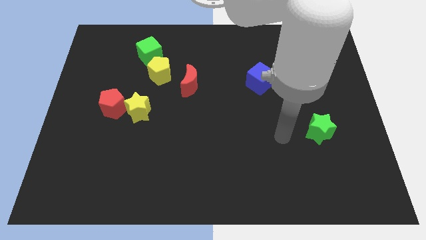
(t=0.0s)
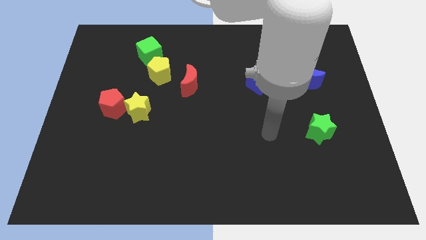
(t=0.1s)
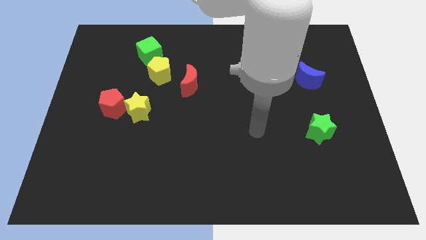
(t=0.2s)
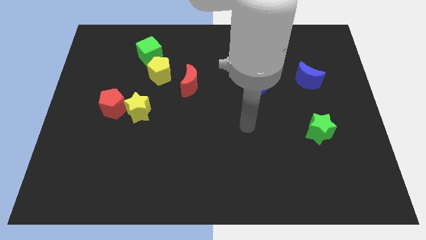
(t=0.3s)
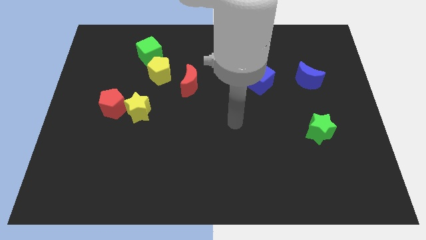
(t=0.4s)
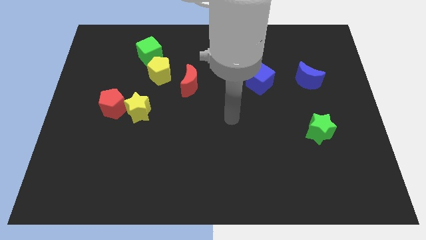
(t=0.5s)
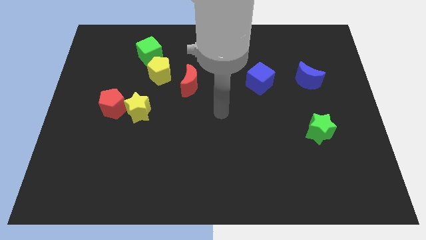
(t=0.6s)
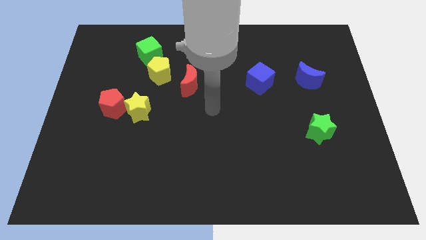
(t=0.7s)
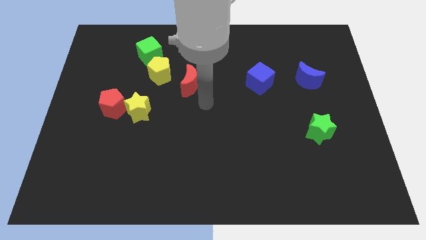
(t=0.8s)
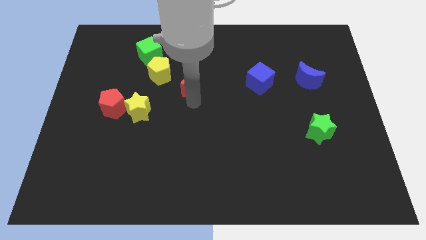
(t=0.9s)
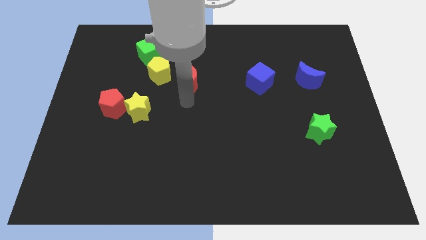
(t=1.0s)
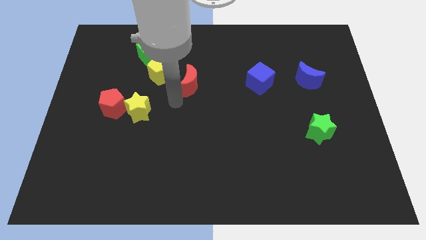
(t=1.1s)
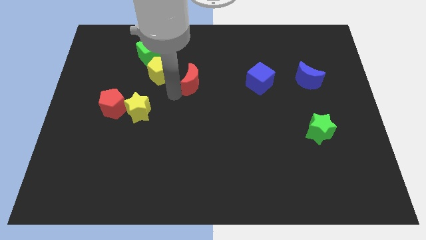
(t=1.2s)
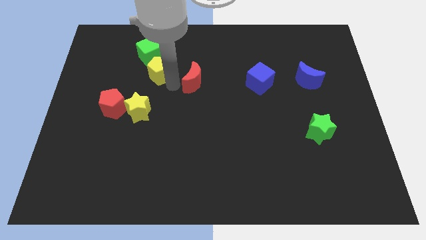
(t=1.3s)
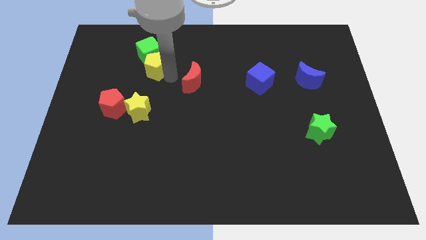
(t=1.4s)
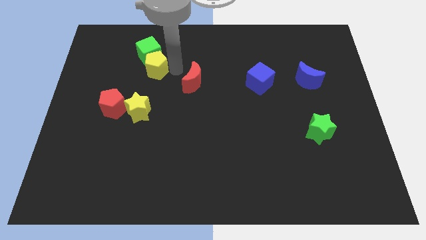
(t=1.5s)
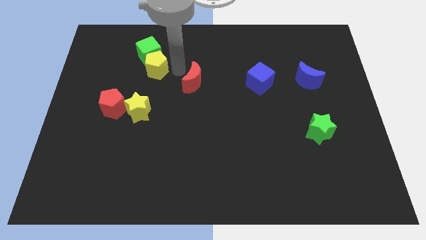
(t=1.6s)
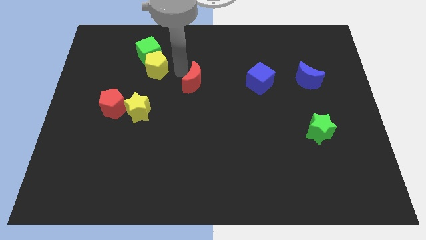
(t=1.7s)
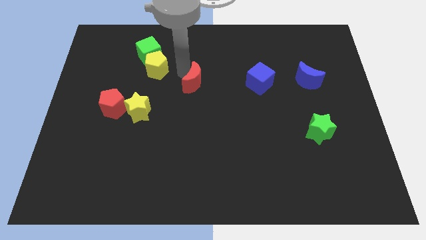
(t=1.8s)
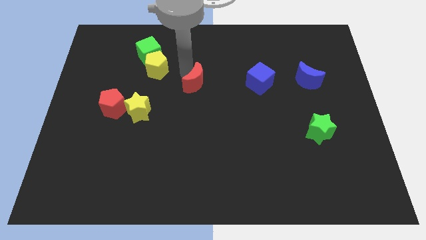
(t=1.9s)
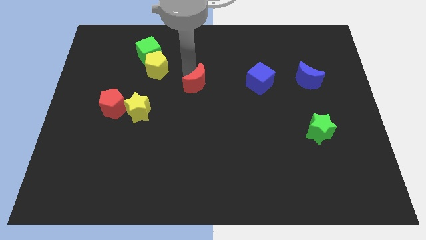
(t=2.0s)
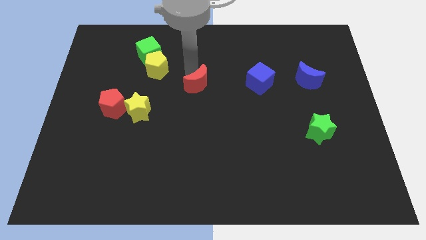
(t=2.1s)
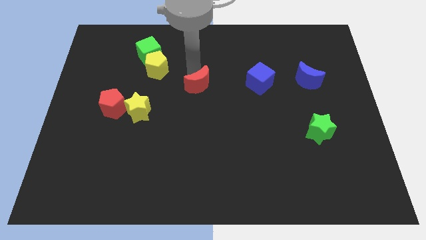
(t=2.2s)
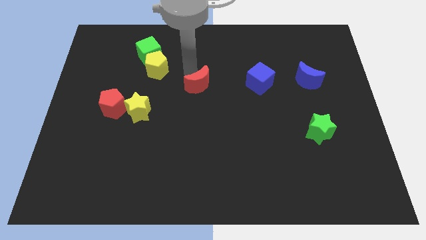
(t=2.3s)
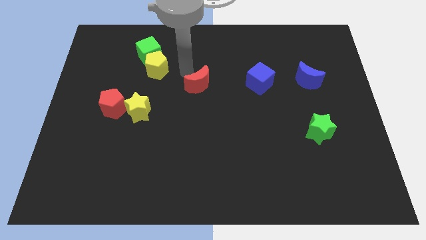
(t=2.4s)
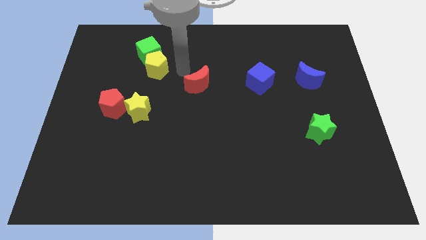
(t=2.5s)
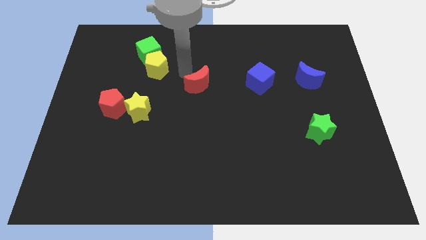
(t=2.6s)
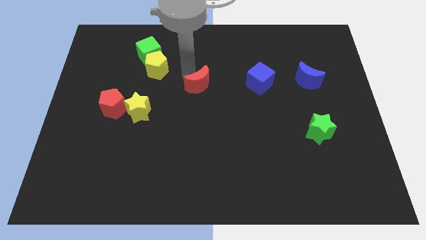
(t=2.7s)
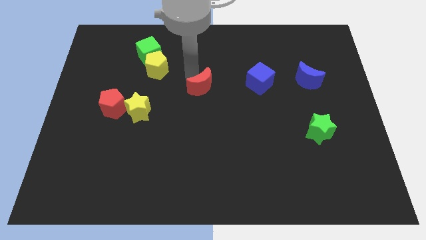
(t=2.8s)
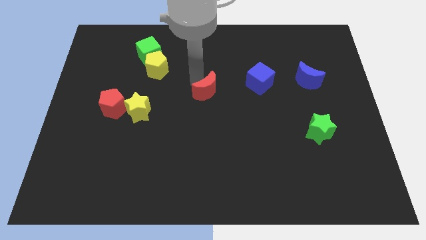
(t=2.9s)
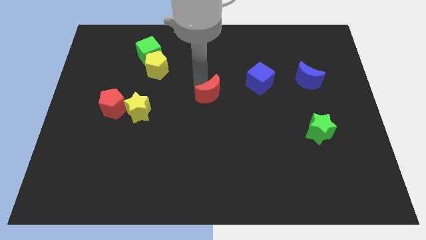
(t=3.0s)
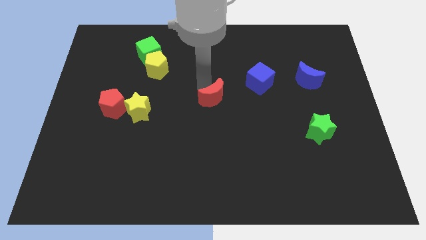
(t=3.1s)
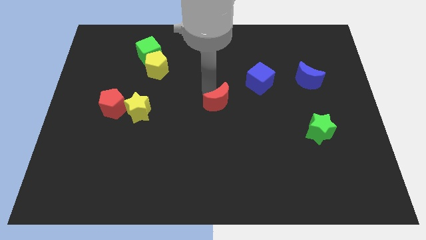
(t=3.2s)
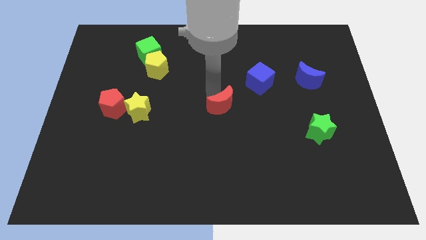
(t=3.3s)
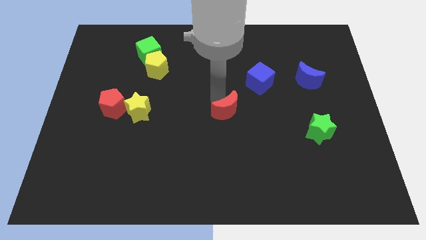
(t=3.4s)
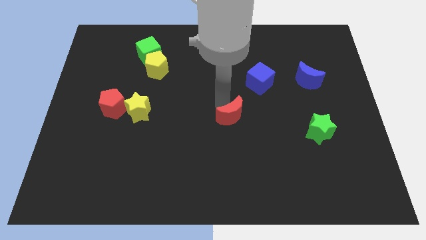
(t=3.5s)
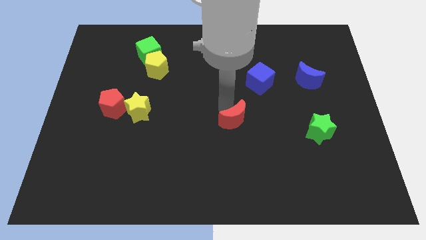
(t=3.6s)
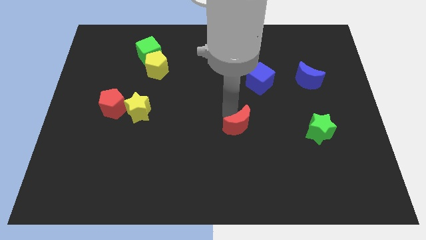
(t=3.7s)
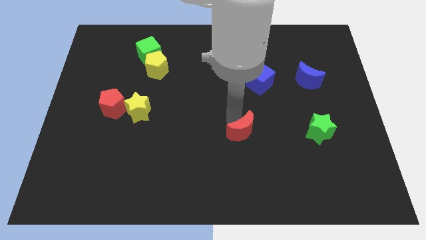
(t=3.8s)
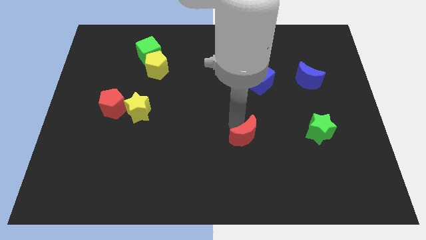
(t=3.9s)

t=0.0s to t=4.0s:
slide the red moon diagonally downwards and right

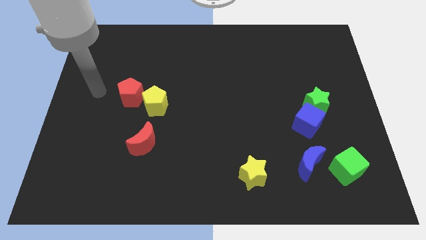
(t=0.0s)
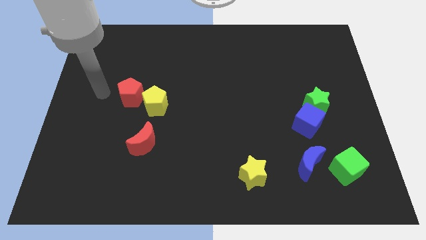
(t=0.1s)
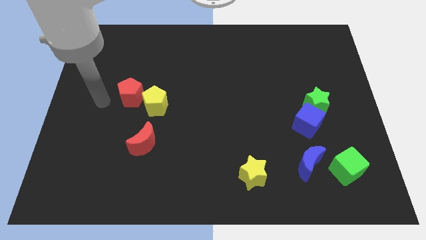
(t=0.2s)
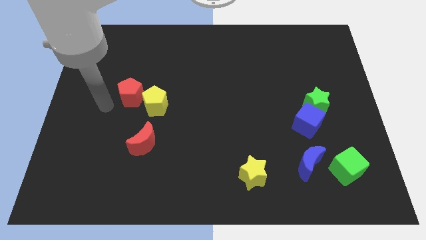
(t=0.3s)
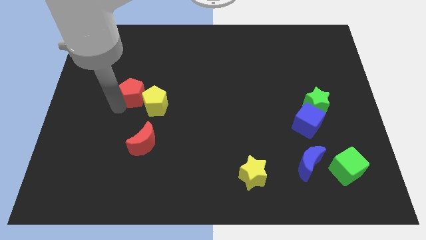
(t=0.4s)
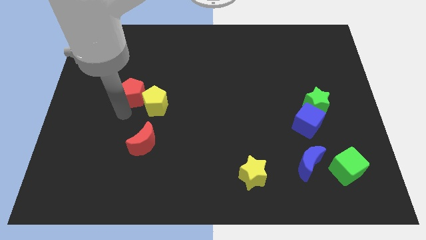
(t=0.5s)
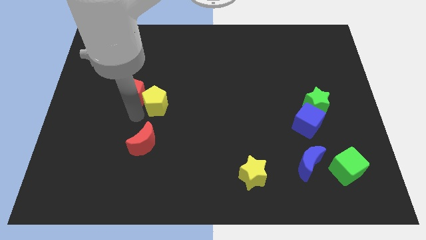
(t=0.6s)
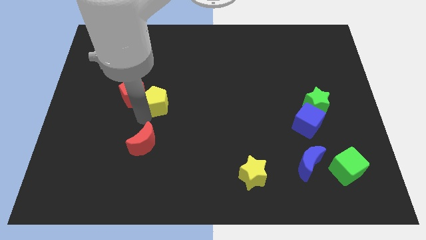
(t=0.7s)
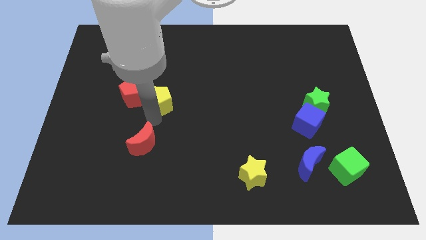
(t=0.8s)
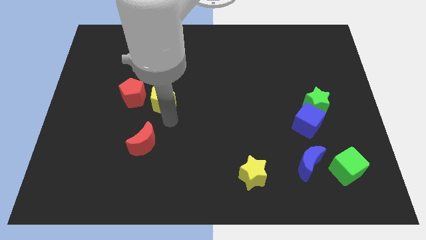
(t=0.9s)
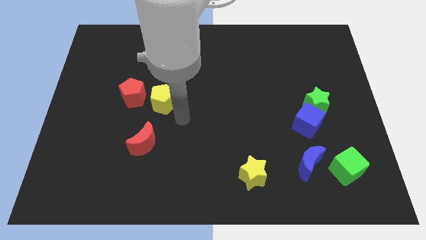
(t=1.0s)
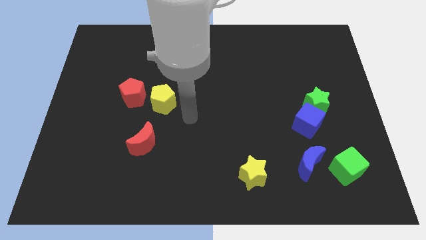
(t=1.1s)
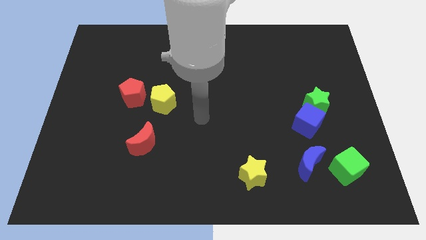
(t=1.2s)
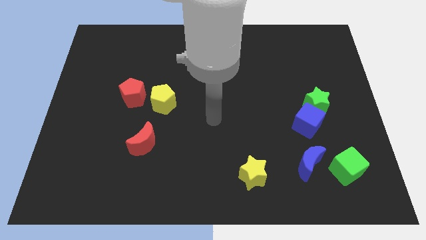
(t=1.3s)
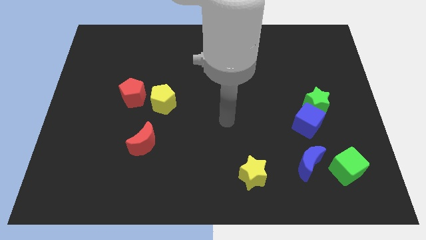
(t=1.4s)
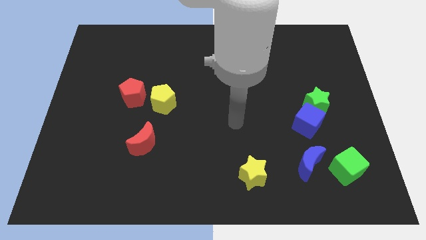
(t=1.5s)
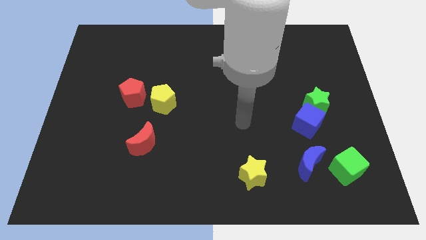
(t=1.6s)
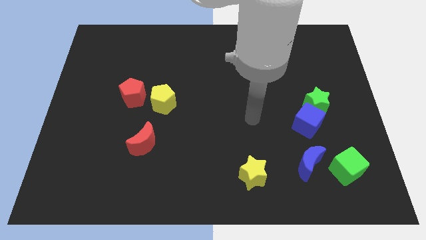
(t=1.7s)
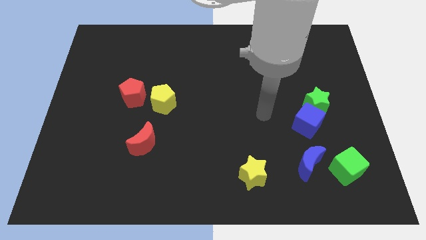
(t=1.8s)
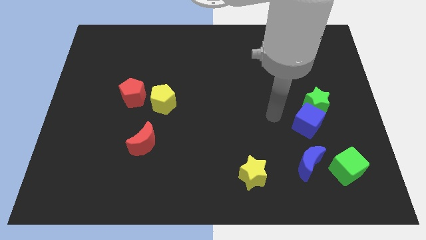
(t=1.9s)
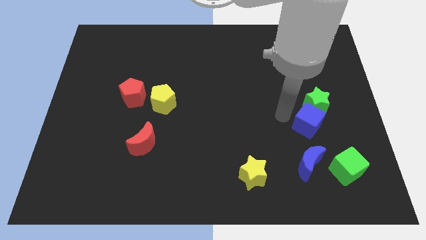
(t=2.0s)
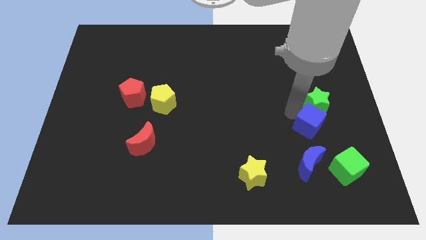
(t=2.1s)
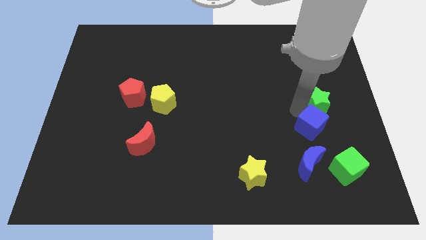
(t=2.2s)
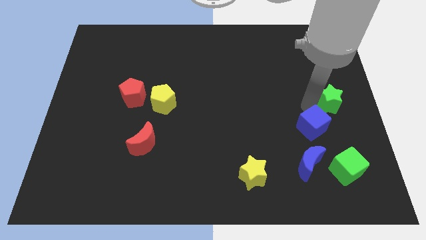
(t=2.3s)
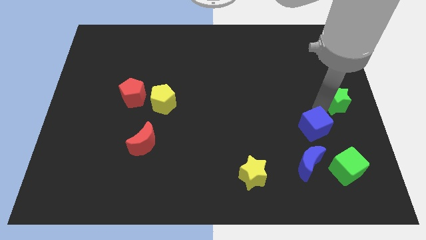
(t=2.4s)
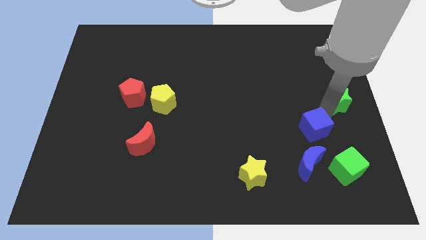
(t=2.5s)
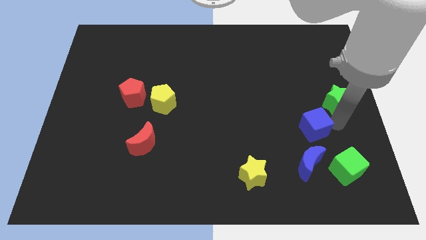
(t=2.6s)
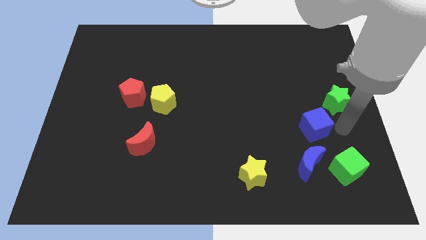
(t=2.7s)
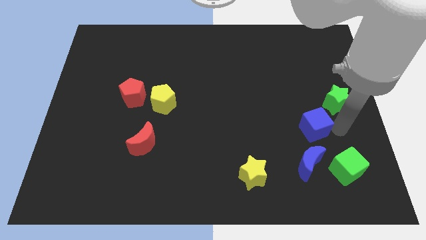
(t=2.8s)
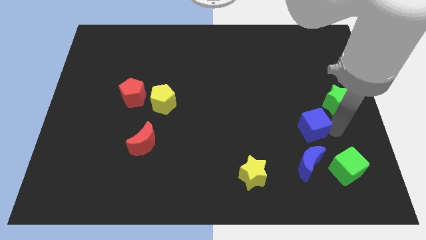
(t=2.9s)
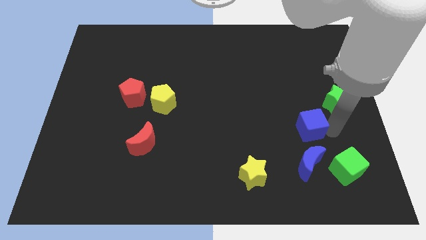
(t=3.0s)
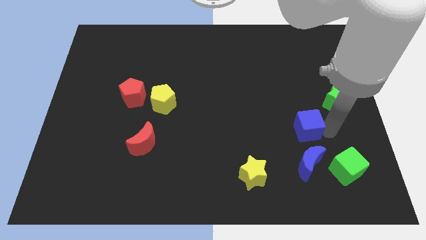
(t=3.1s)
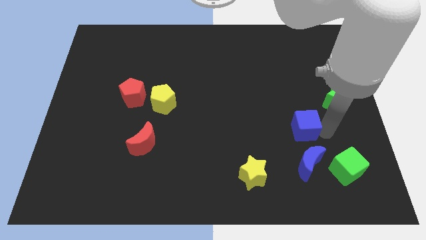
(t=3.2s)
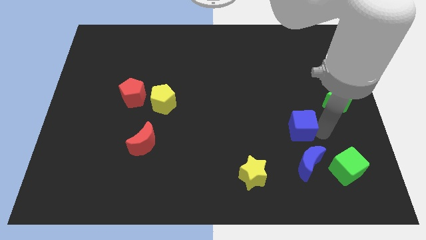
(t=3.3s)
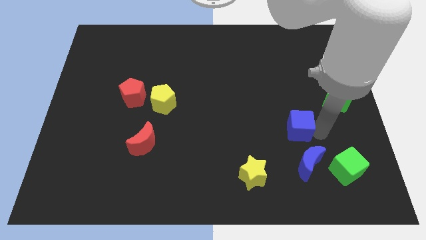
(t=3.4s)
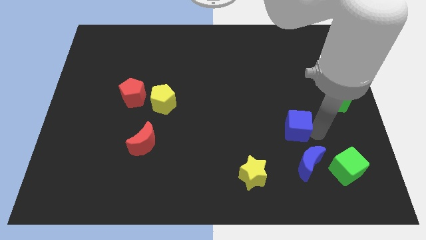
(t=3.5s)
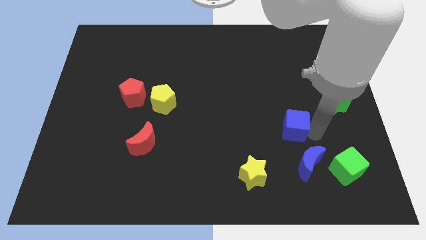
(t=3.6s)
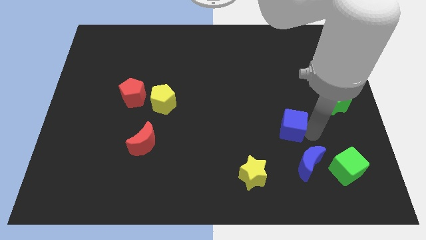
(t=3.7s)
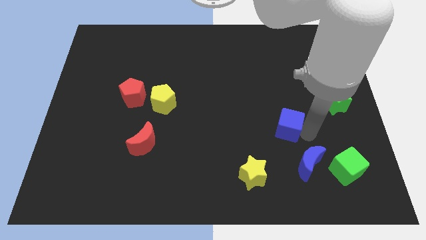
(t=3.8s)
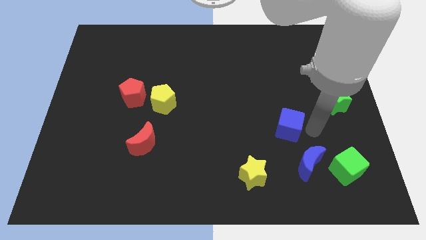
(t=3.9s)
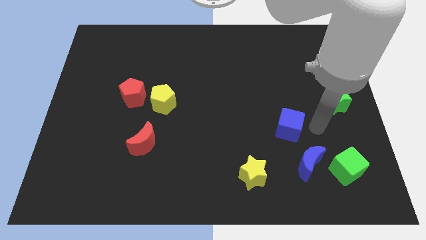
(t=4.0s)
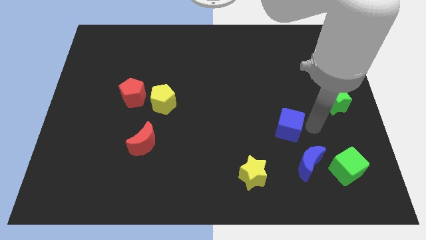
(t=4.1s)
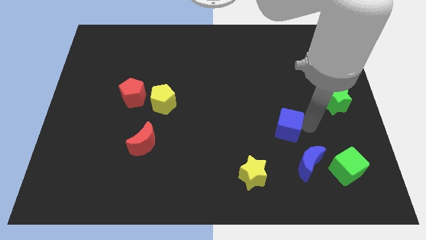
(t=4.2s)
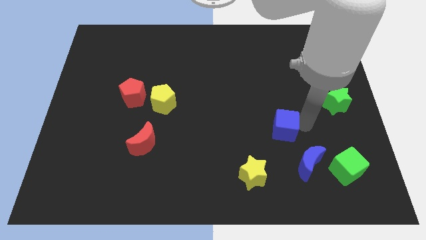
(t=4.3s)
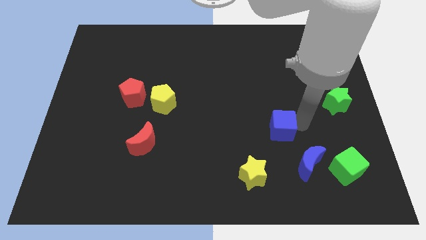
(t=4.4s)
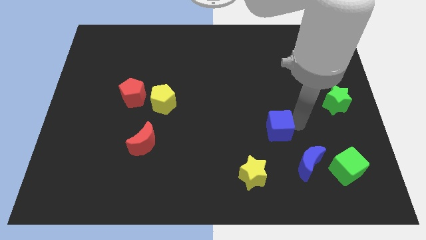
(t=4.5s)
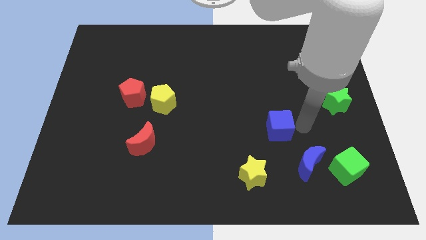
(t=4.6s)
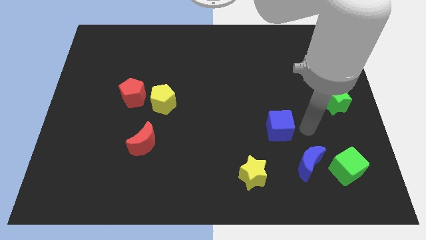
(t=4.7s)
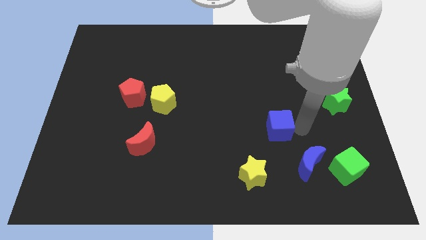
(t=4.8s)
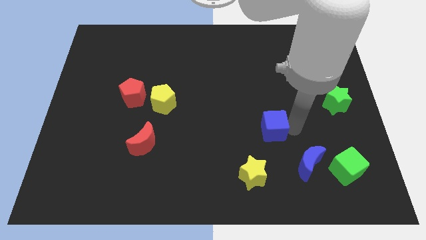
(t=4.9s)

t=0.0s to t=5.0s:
push the blue cube slightly left
